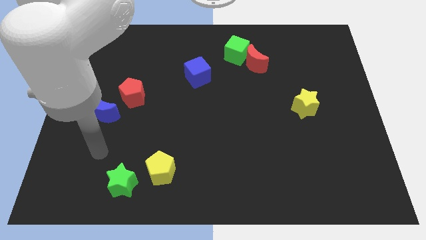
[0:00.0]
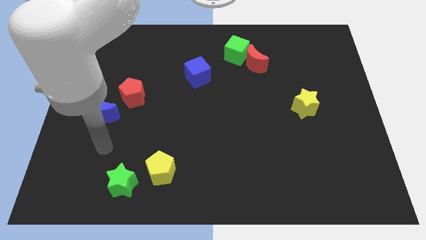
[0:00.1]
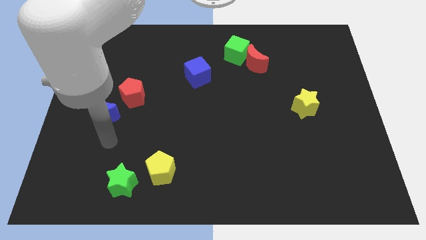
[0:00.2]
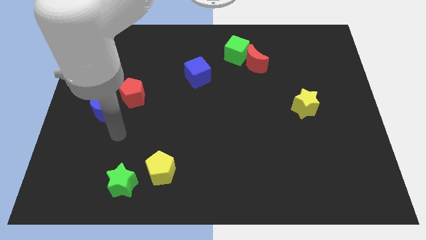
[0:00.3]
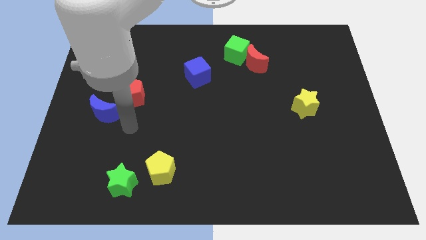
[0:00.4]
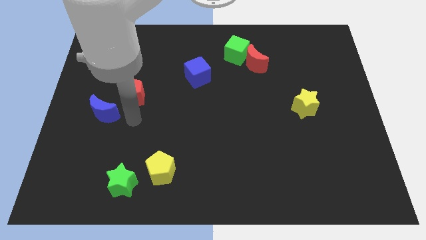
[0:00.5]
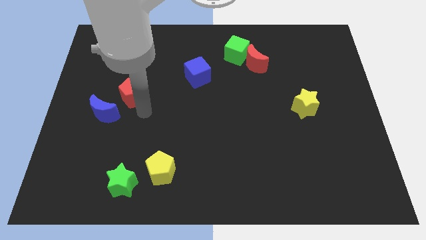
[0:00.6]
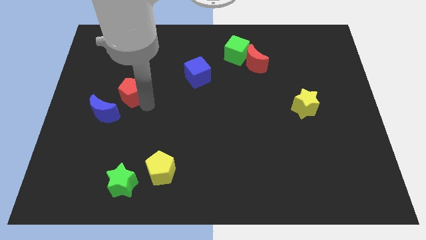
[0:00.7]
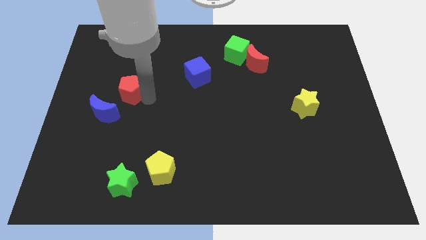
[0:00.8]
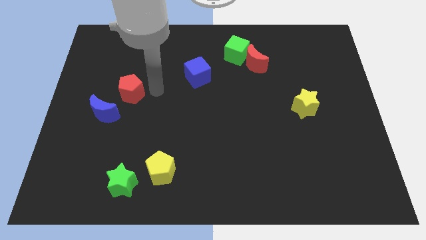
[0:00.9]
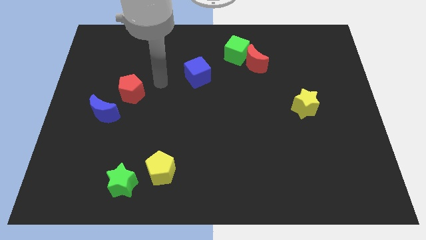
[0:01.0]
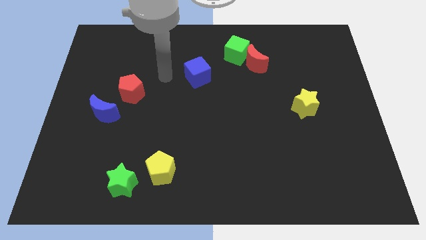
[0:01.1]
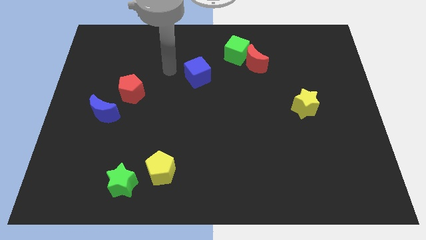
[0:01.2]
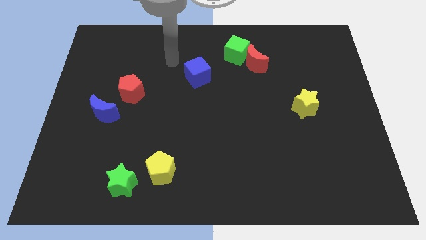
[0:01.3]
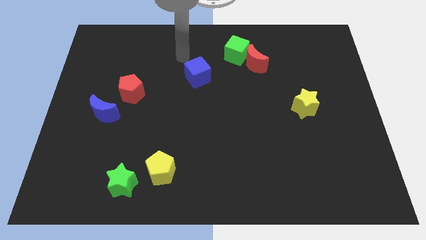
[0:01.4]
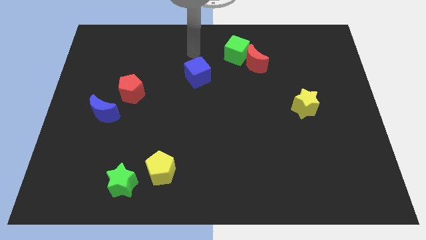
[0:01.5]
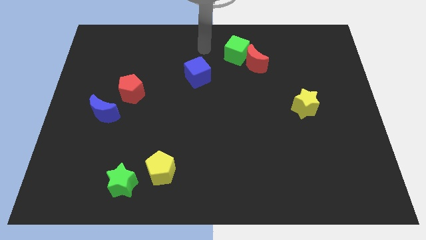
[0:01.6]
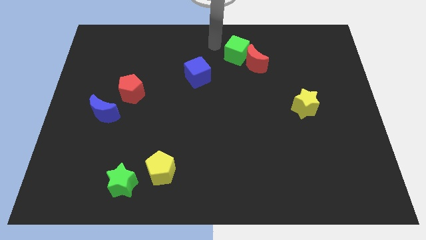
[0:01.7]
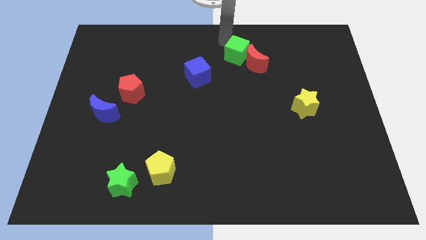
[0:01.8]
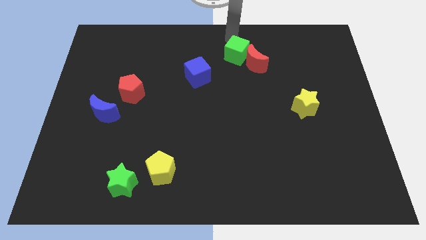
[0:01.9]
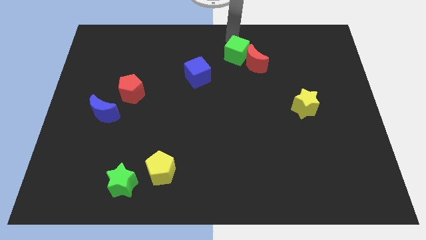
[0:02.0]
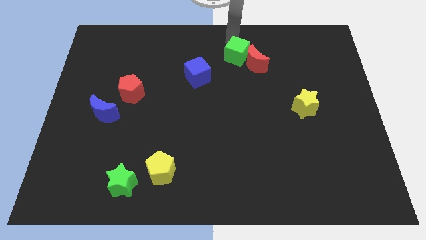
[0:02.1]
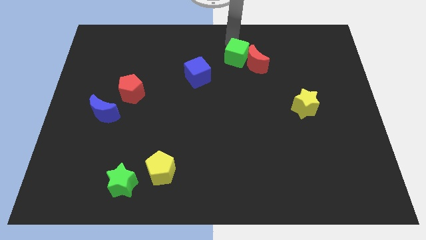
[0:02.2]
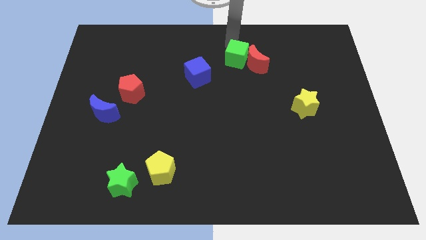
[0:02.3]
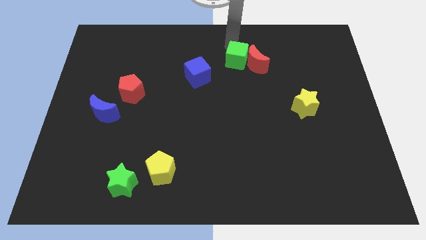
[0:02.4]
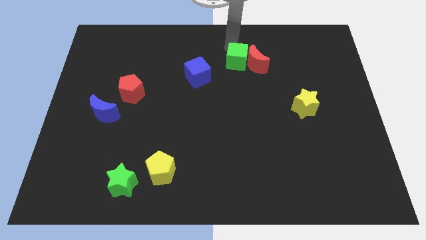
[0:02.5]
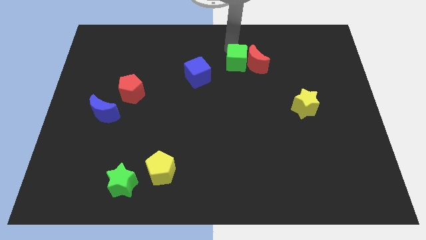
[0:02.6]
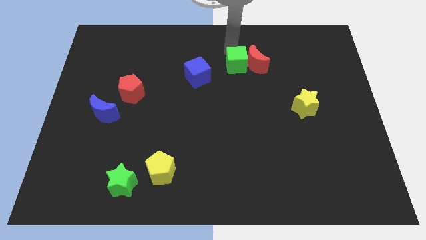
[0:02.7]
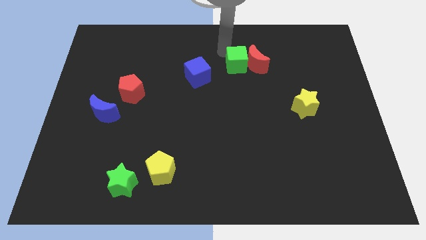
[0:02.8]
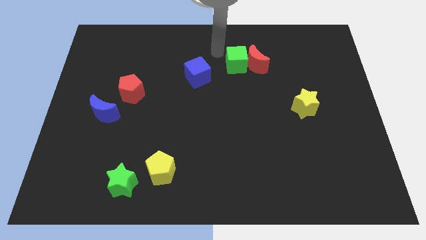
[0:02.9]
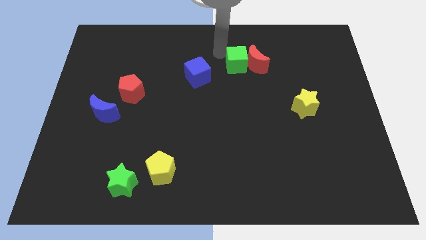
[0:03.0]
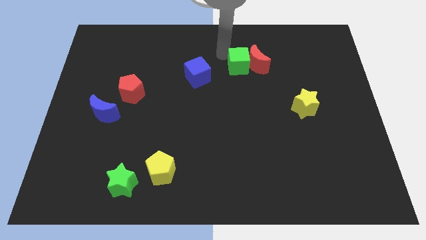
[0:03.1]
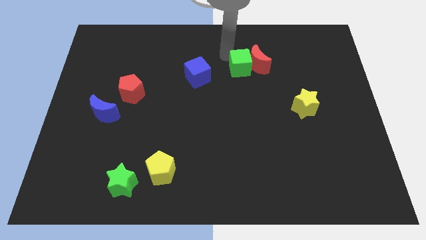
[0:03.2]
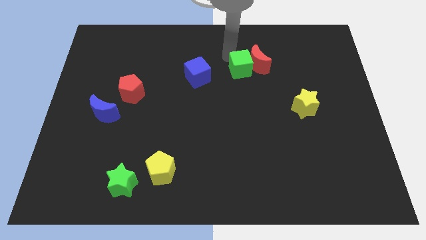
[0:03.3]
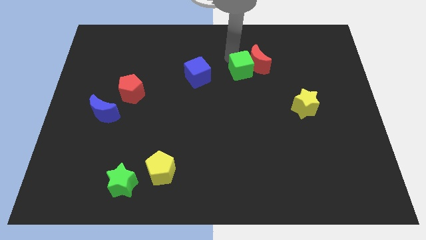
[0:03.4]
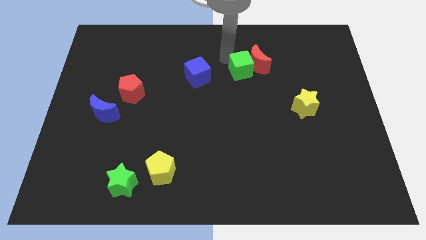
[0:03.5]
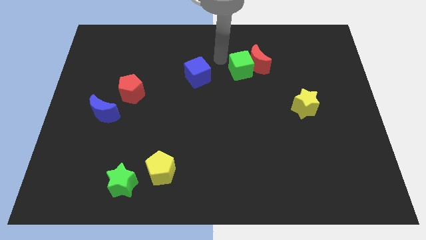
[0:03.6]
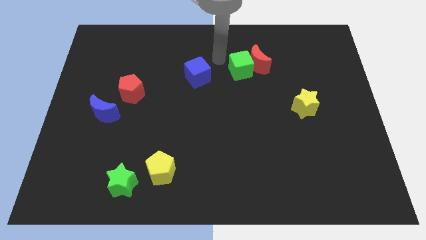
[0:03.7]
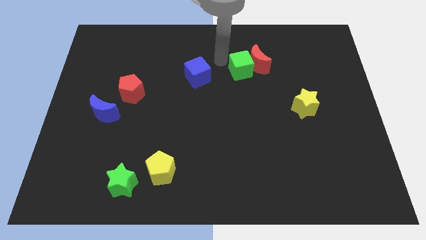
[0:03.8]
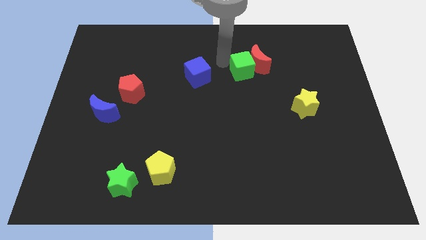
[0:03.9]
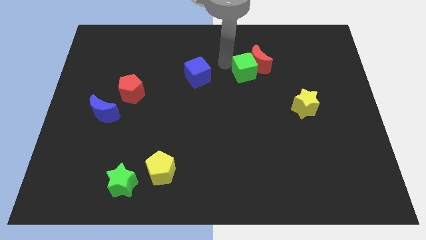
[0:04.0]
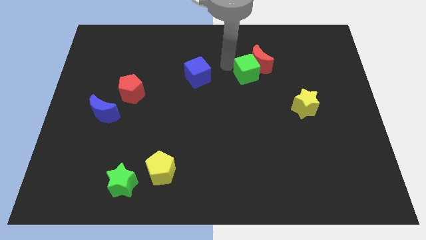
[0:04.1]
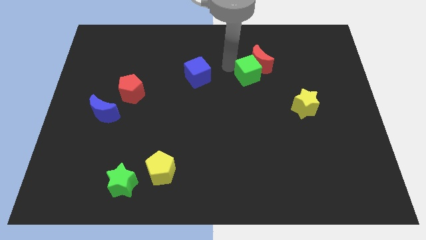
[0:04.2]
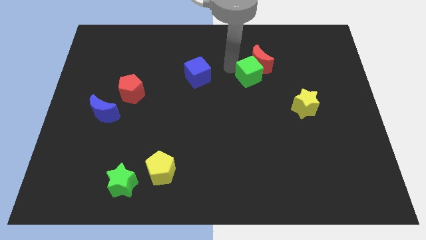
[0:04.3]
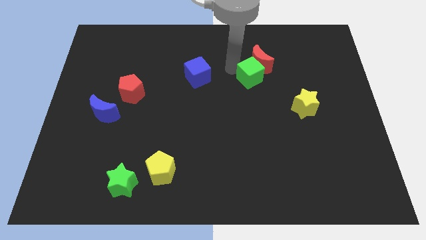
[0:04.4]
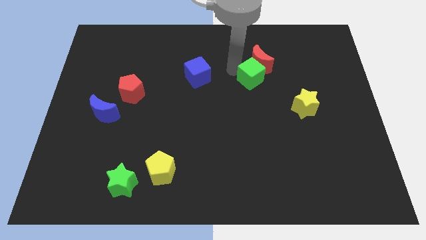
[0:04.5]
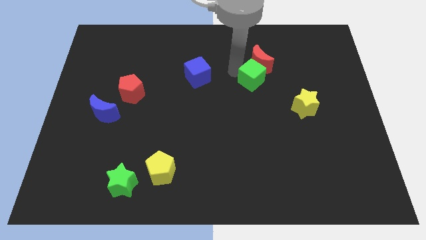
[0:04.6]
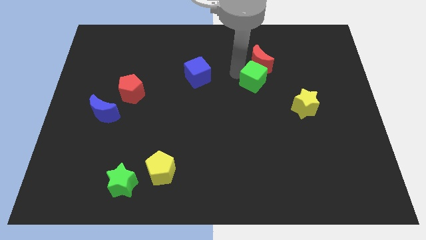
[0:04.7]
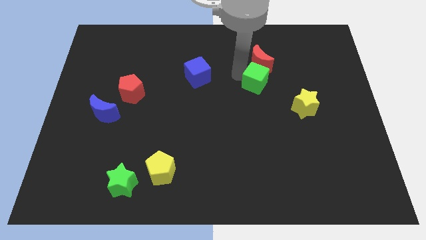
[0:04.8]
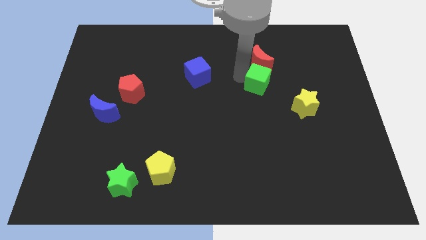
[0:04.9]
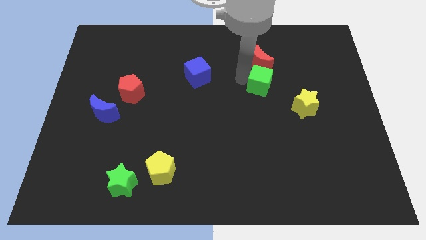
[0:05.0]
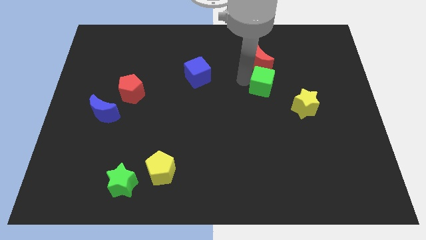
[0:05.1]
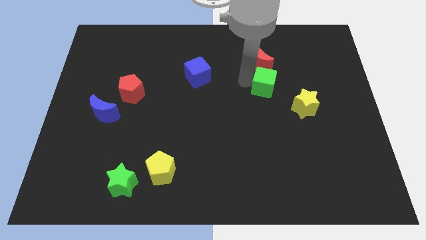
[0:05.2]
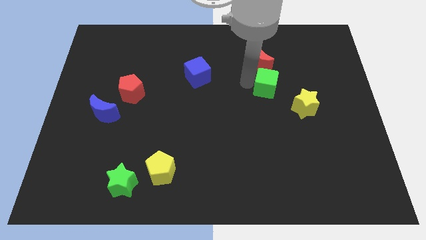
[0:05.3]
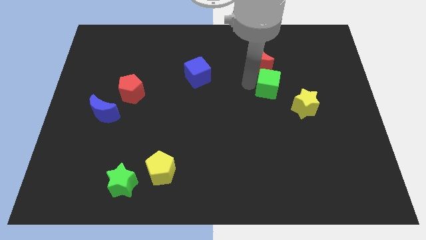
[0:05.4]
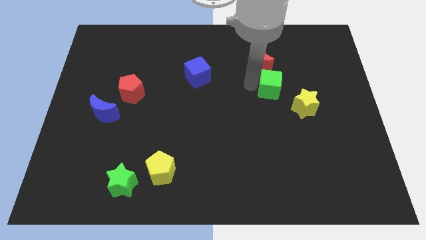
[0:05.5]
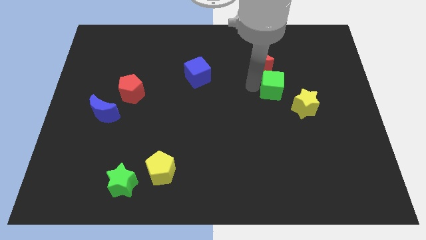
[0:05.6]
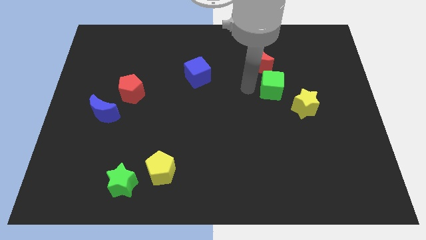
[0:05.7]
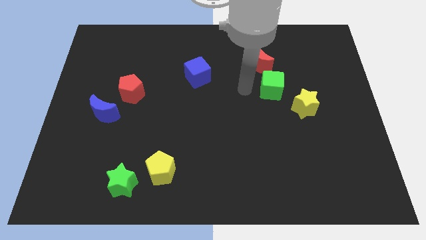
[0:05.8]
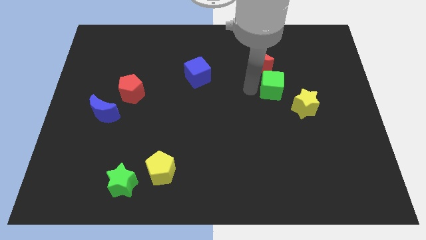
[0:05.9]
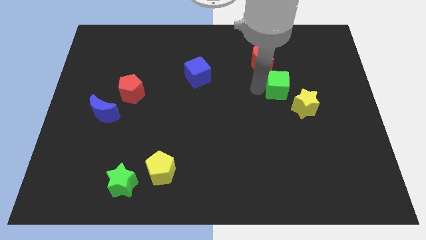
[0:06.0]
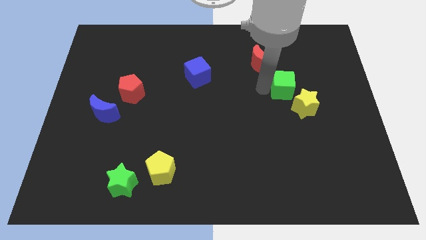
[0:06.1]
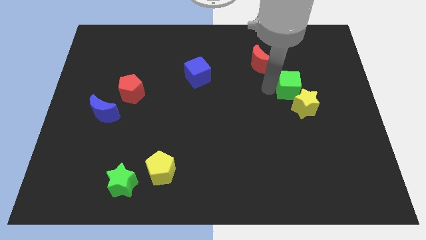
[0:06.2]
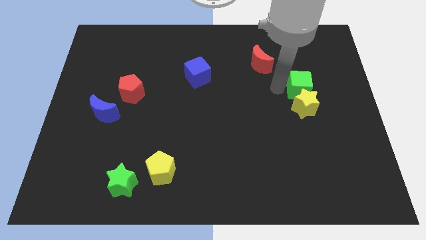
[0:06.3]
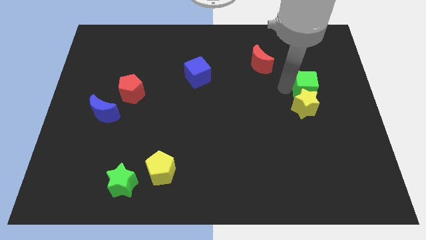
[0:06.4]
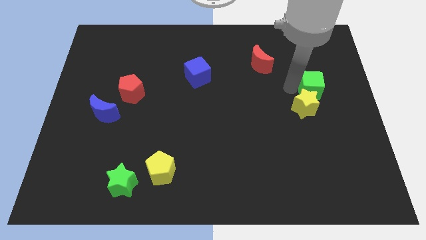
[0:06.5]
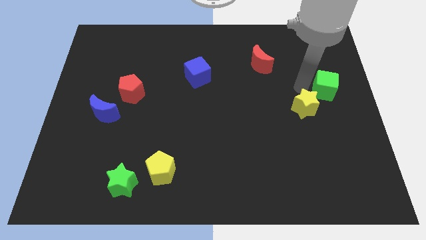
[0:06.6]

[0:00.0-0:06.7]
put the green cube to the center right

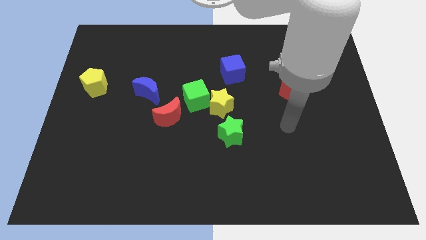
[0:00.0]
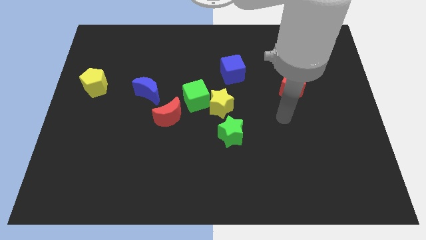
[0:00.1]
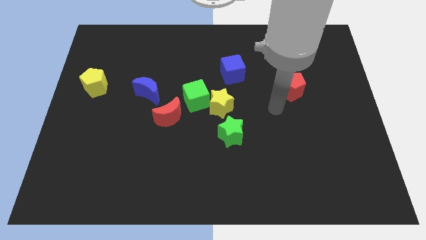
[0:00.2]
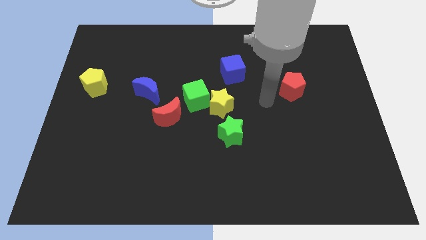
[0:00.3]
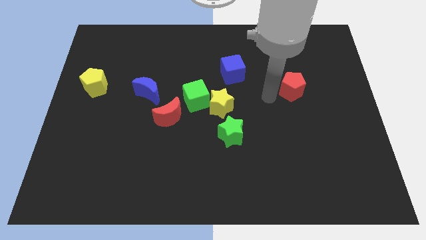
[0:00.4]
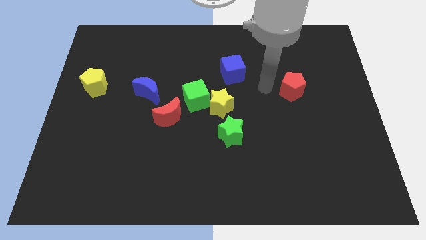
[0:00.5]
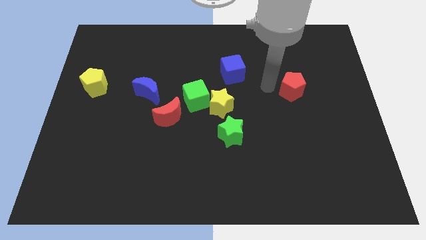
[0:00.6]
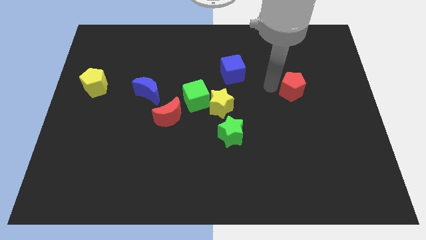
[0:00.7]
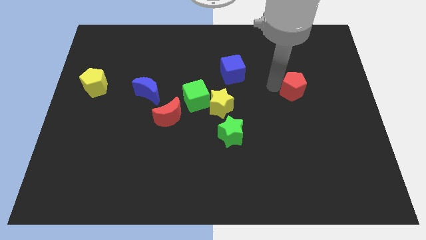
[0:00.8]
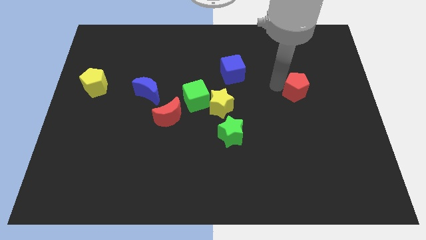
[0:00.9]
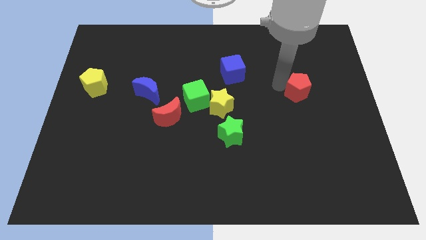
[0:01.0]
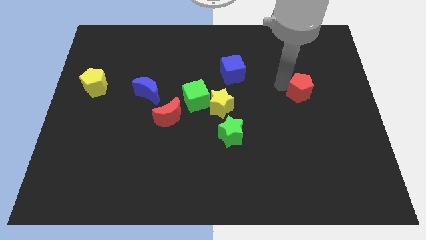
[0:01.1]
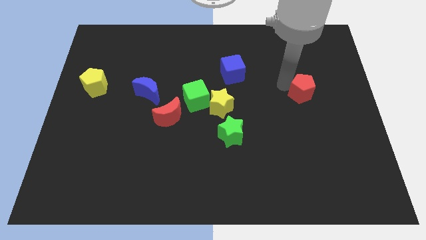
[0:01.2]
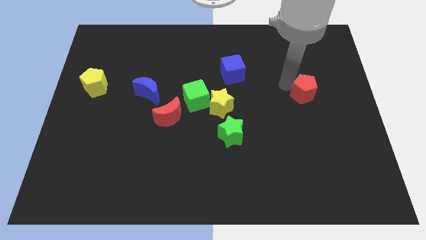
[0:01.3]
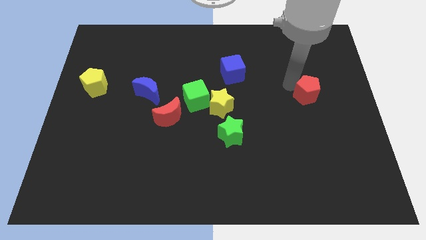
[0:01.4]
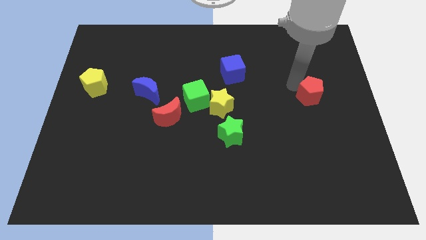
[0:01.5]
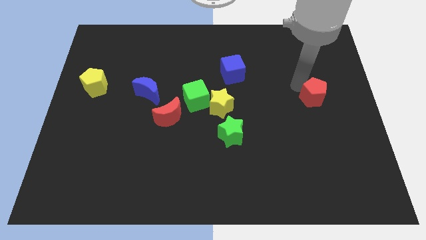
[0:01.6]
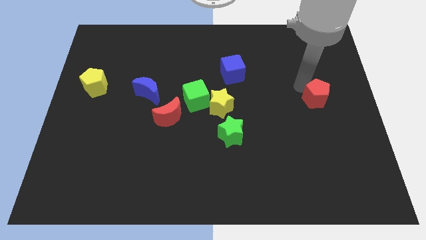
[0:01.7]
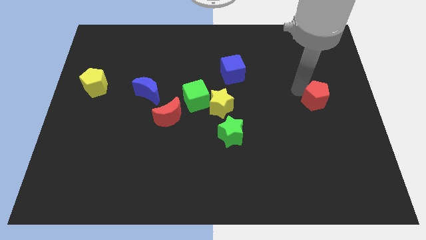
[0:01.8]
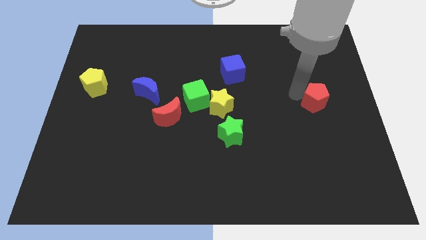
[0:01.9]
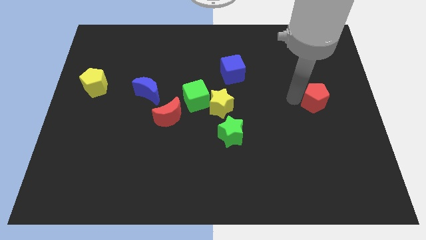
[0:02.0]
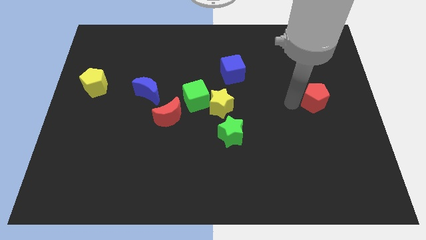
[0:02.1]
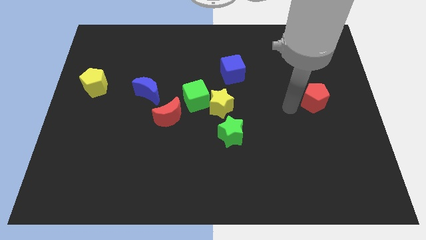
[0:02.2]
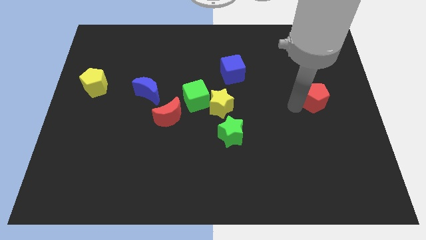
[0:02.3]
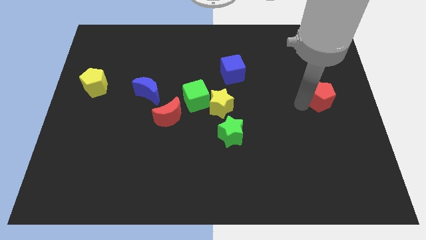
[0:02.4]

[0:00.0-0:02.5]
put the red pentagon to the right side of the board
